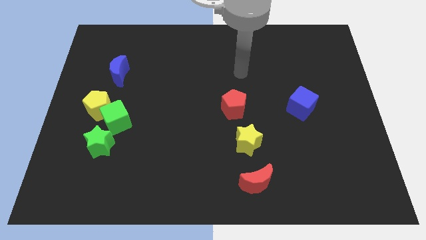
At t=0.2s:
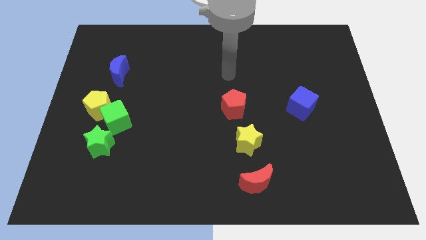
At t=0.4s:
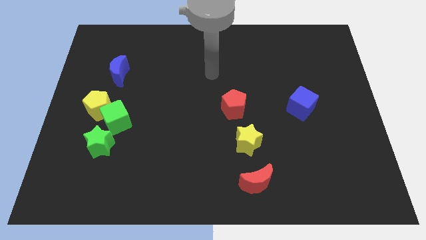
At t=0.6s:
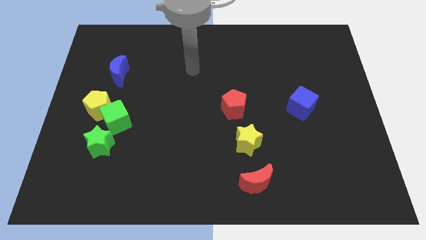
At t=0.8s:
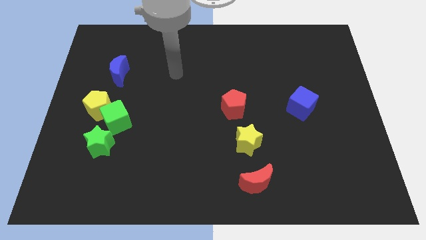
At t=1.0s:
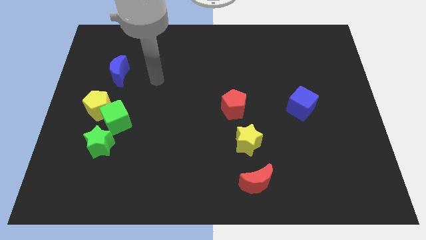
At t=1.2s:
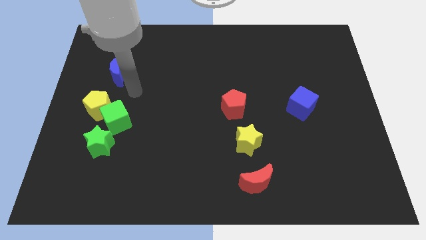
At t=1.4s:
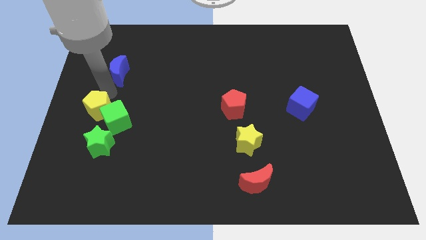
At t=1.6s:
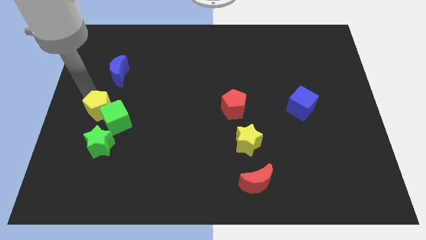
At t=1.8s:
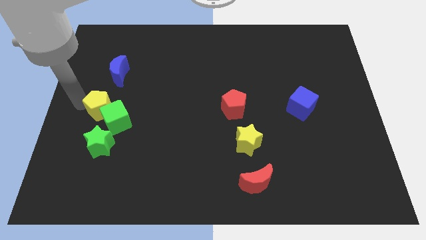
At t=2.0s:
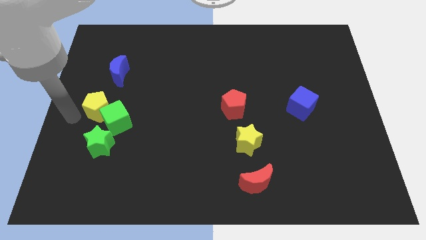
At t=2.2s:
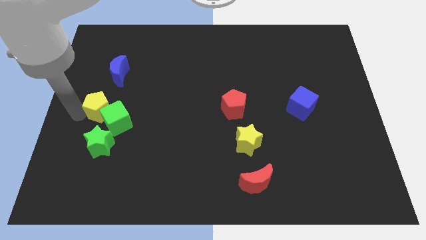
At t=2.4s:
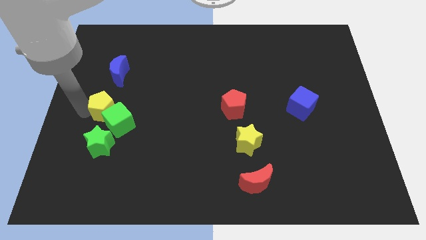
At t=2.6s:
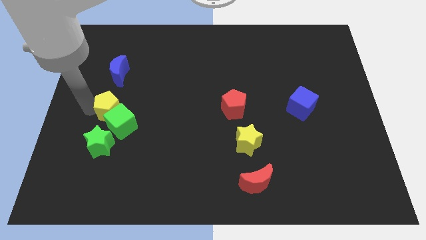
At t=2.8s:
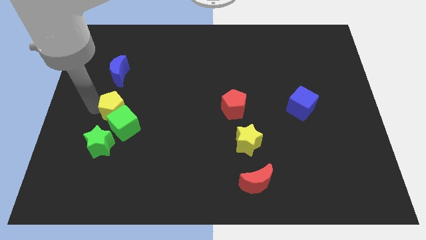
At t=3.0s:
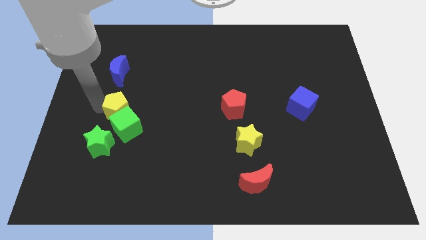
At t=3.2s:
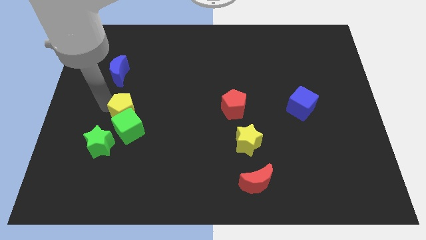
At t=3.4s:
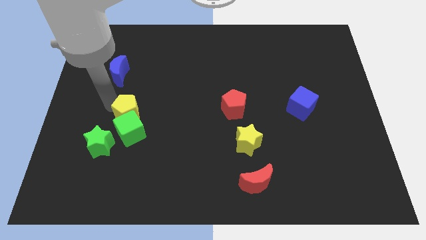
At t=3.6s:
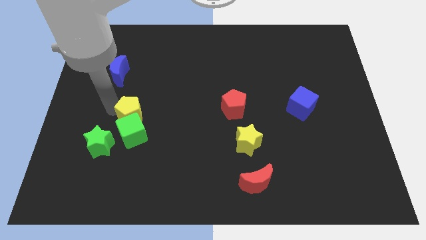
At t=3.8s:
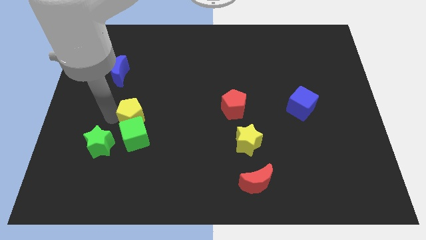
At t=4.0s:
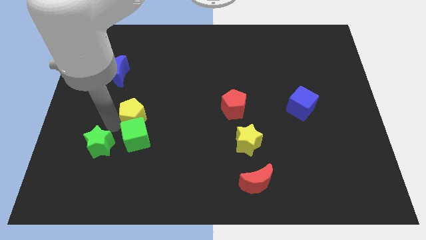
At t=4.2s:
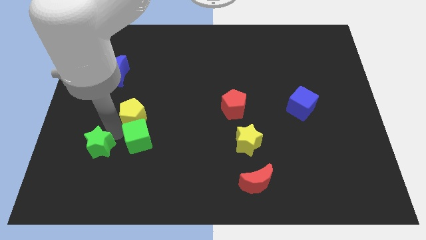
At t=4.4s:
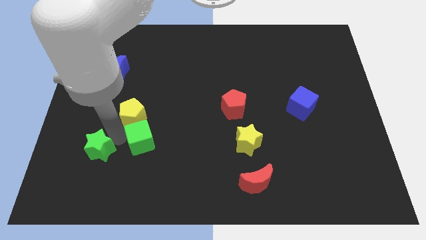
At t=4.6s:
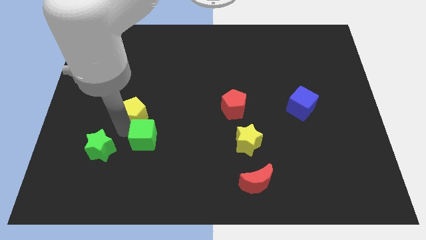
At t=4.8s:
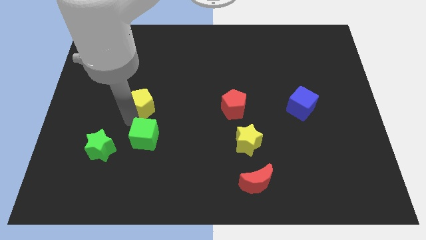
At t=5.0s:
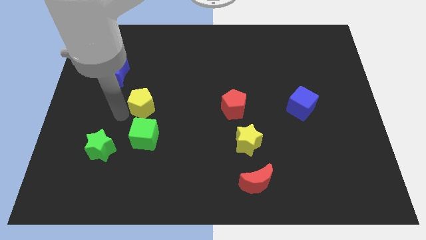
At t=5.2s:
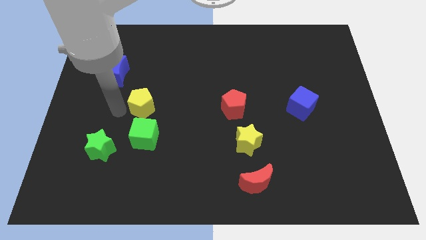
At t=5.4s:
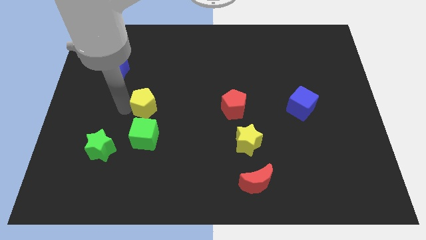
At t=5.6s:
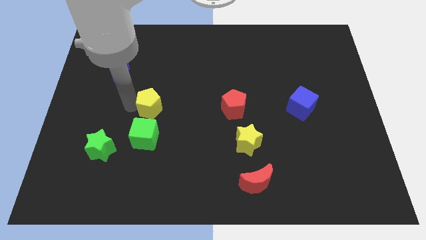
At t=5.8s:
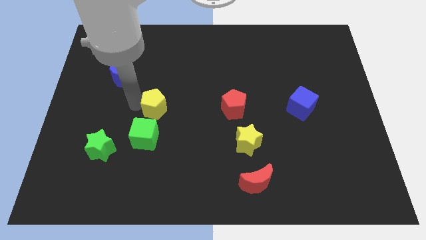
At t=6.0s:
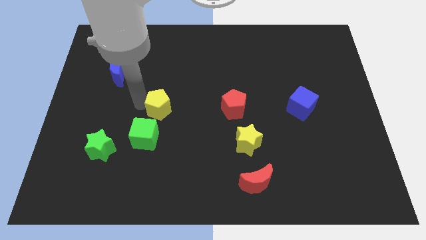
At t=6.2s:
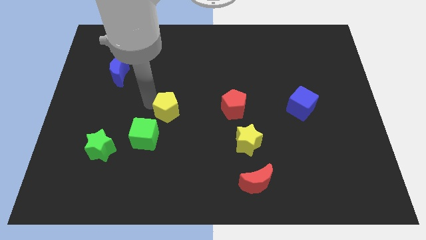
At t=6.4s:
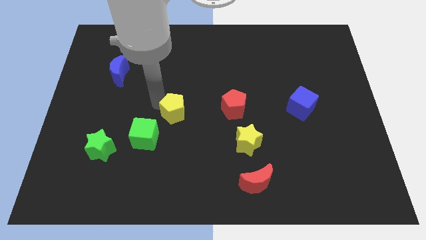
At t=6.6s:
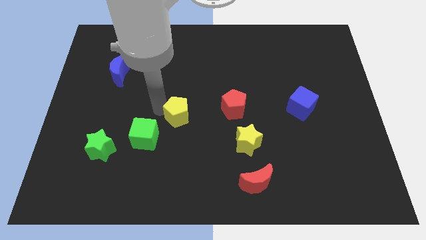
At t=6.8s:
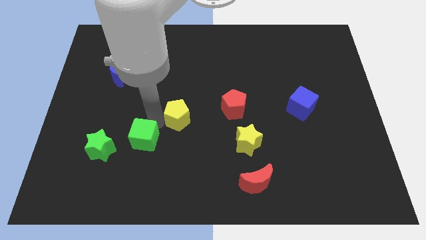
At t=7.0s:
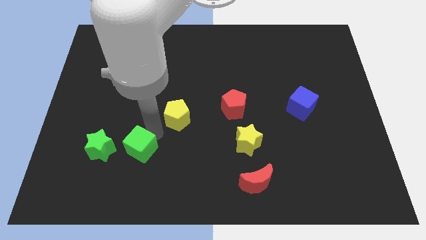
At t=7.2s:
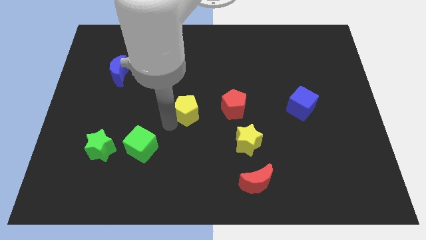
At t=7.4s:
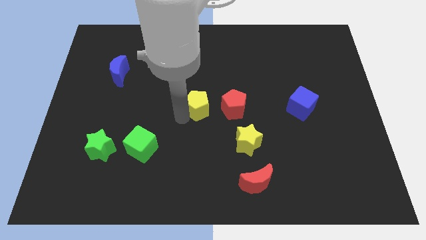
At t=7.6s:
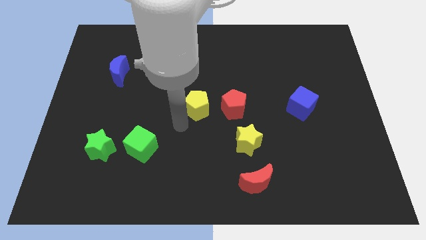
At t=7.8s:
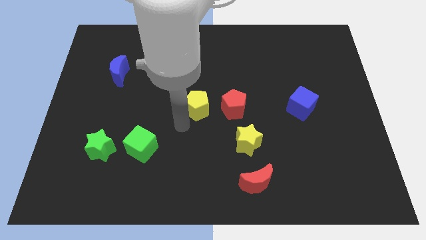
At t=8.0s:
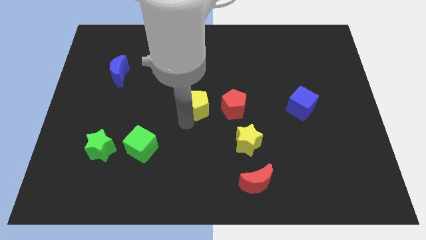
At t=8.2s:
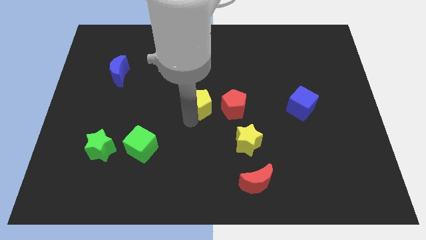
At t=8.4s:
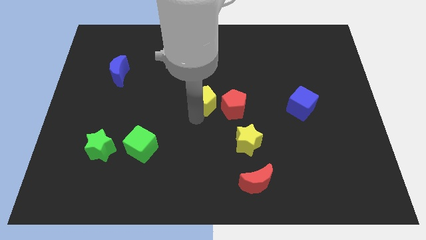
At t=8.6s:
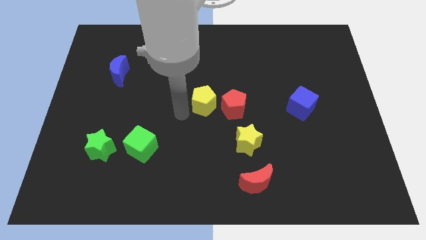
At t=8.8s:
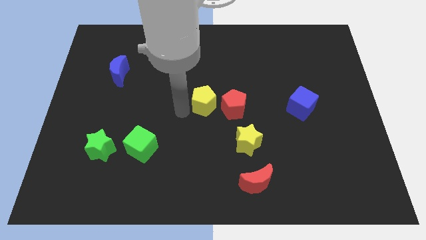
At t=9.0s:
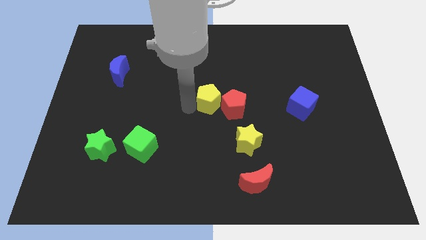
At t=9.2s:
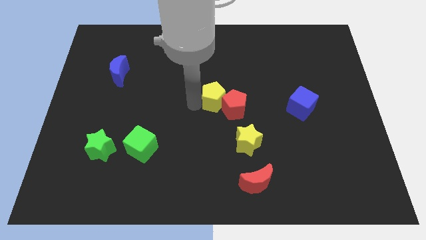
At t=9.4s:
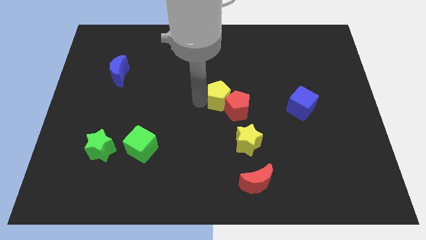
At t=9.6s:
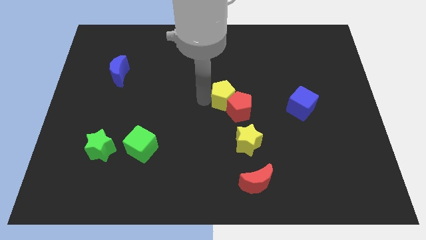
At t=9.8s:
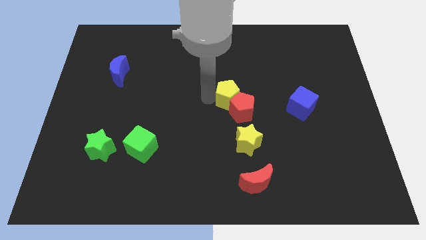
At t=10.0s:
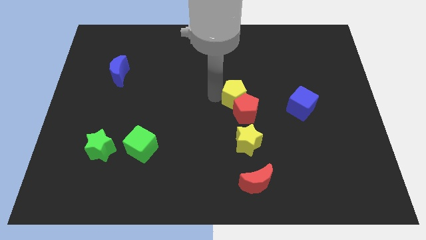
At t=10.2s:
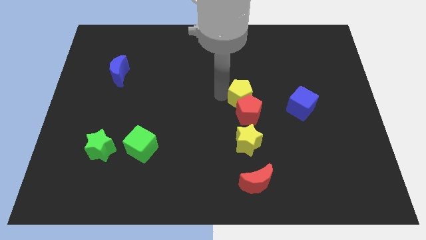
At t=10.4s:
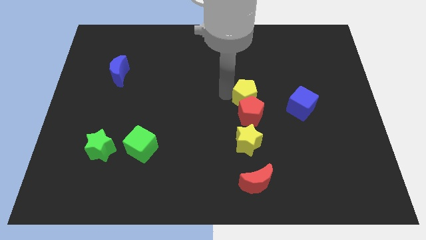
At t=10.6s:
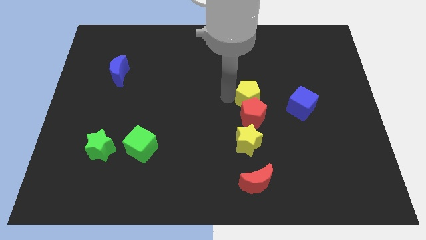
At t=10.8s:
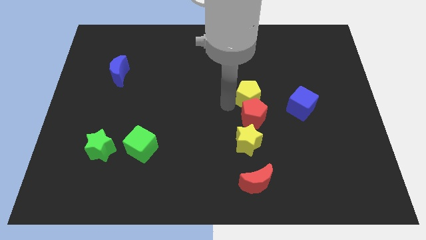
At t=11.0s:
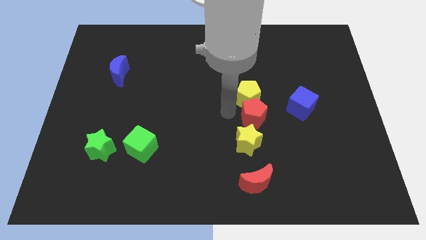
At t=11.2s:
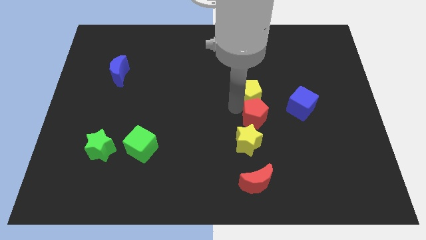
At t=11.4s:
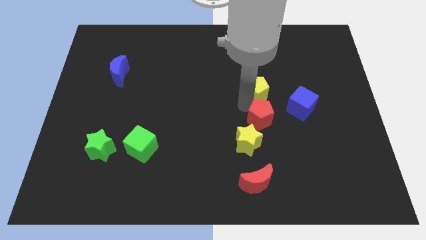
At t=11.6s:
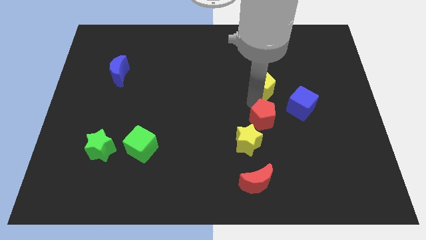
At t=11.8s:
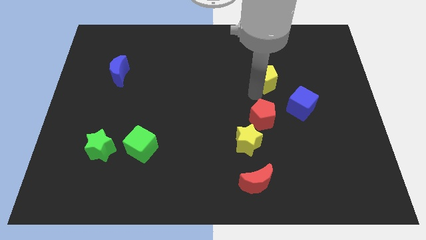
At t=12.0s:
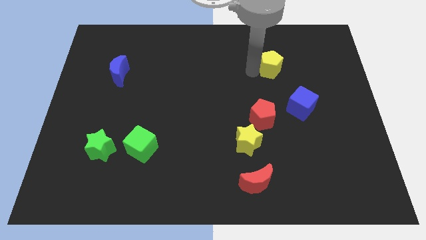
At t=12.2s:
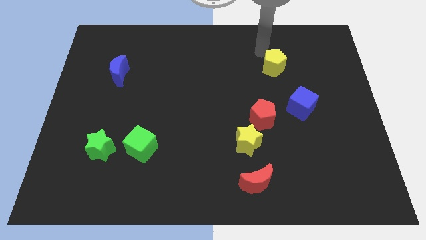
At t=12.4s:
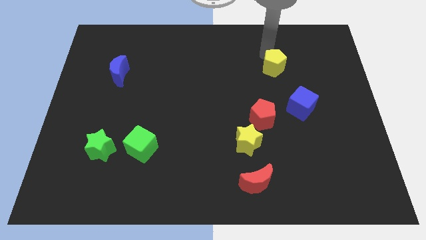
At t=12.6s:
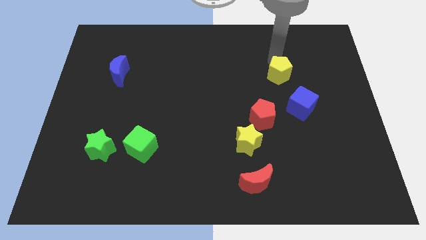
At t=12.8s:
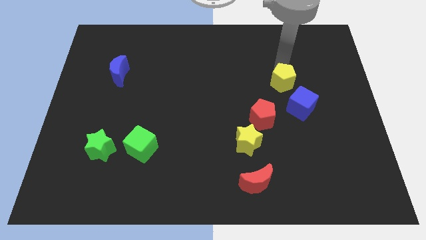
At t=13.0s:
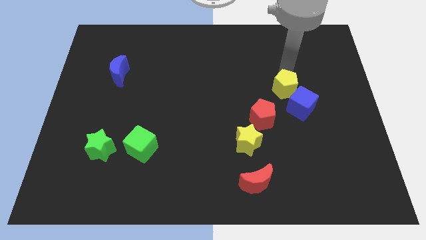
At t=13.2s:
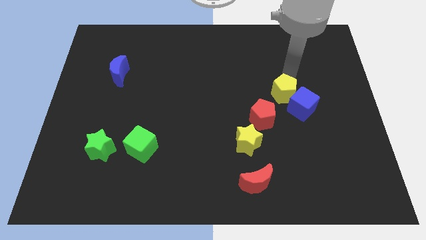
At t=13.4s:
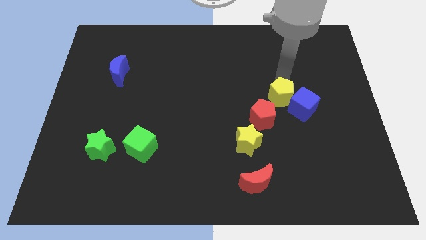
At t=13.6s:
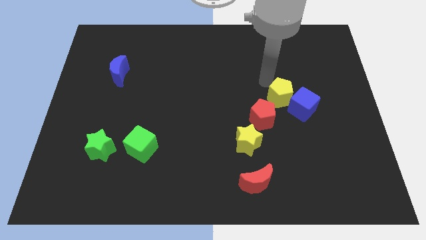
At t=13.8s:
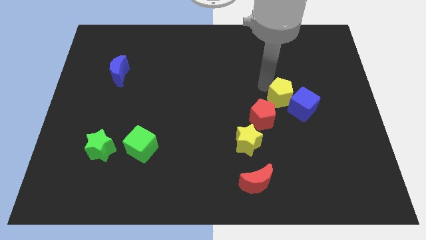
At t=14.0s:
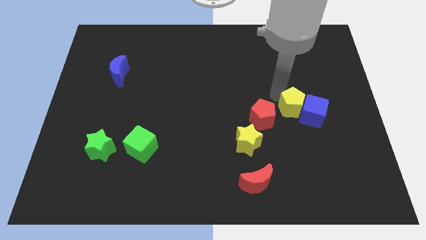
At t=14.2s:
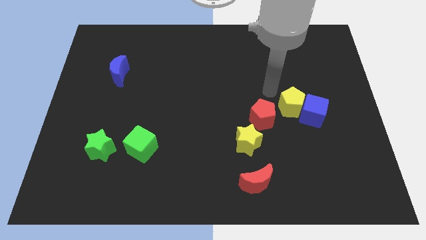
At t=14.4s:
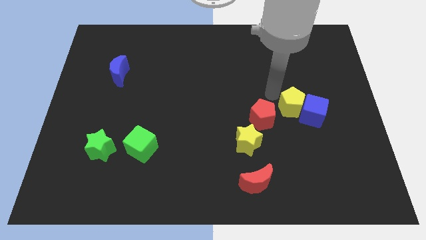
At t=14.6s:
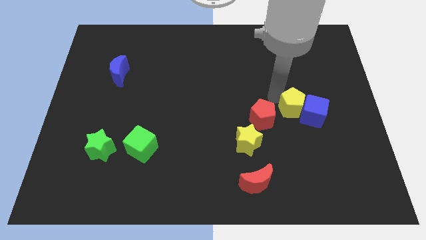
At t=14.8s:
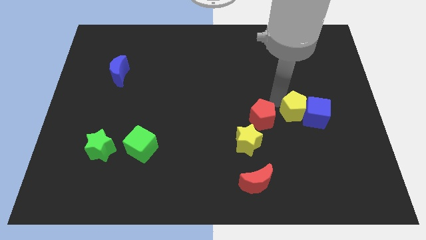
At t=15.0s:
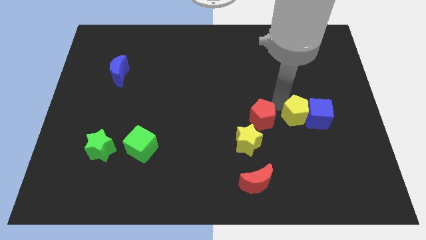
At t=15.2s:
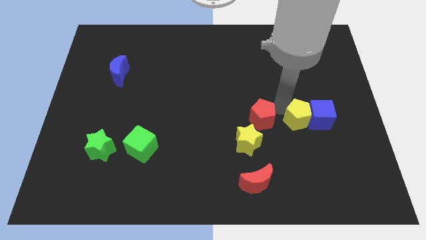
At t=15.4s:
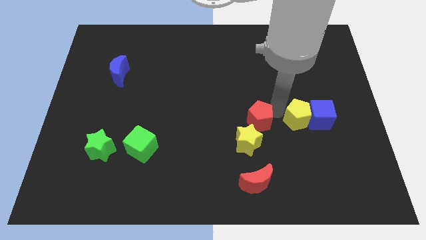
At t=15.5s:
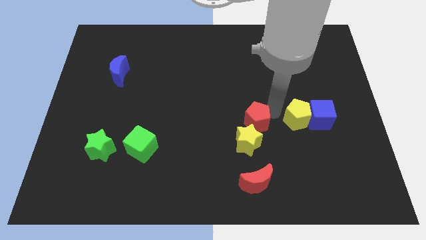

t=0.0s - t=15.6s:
slide the yellow pentagon right of the red pentagon
